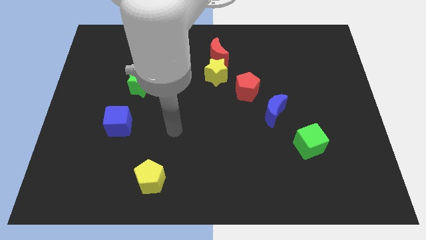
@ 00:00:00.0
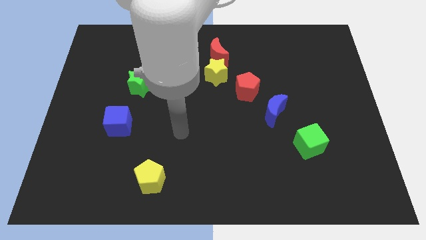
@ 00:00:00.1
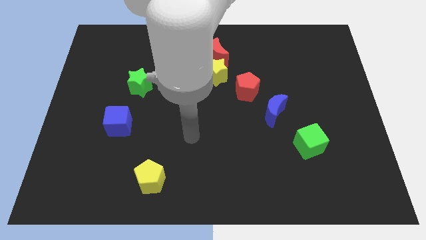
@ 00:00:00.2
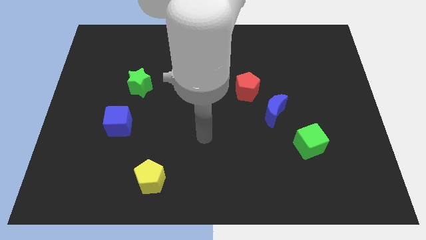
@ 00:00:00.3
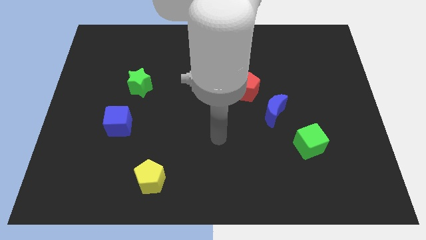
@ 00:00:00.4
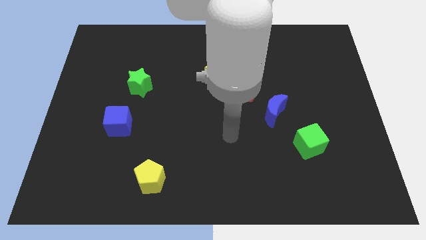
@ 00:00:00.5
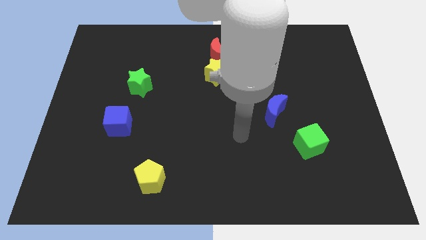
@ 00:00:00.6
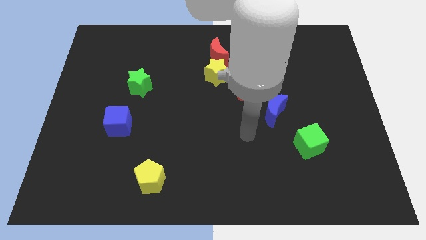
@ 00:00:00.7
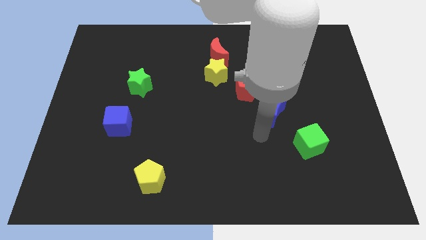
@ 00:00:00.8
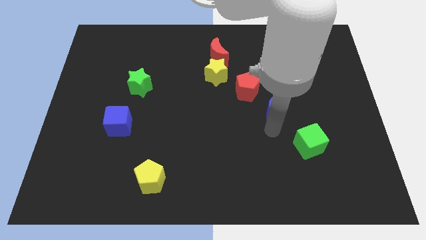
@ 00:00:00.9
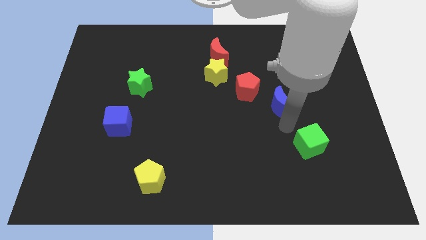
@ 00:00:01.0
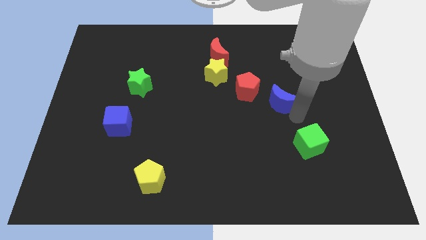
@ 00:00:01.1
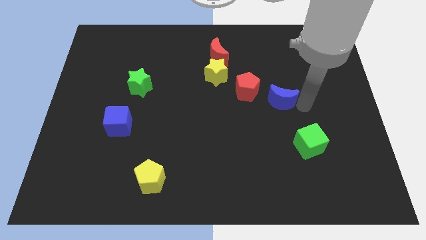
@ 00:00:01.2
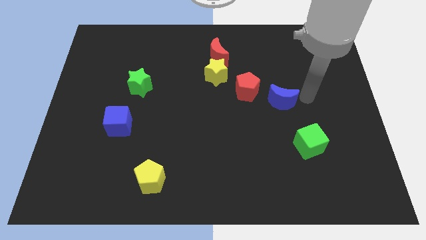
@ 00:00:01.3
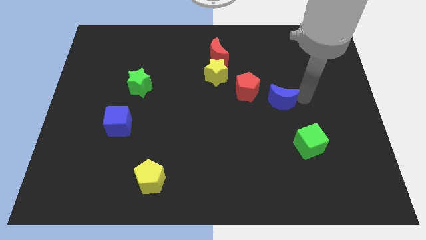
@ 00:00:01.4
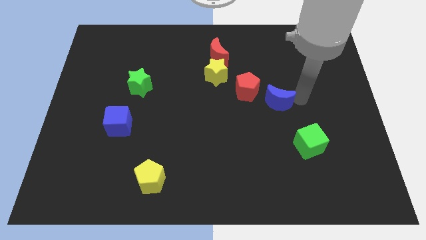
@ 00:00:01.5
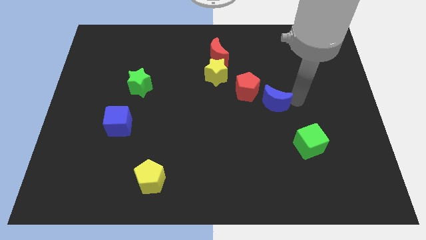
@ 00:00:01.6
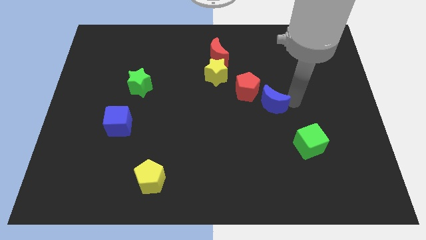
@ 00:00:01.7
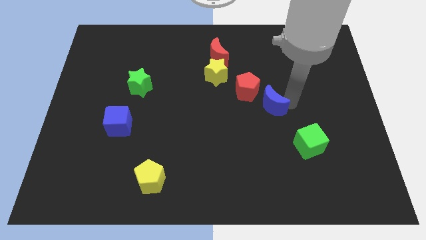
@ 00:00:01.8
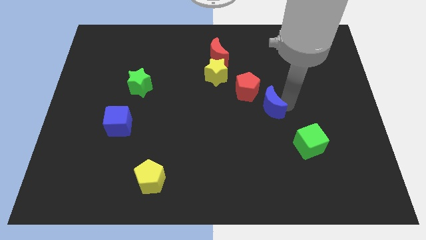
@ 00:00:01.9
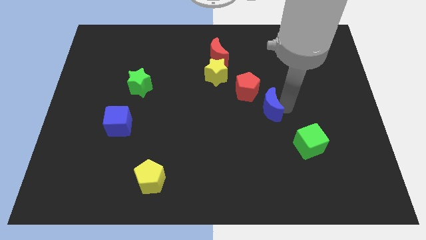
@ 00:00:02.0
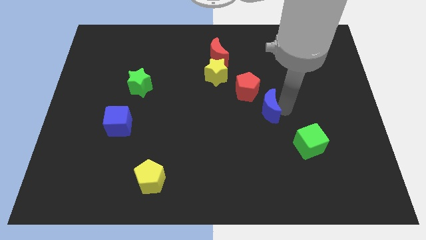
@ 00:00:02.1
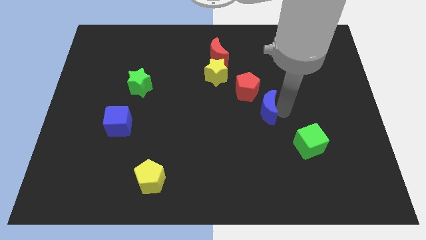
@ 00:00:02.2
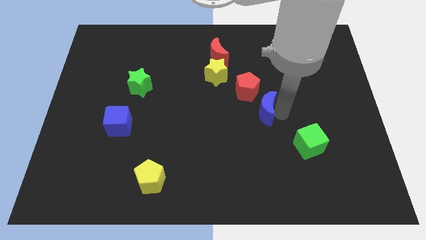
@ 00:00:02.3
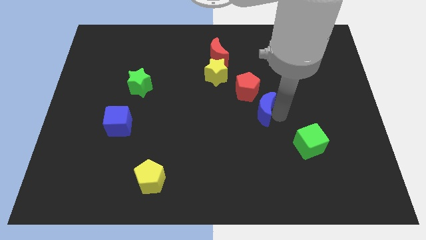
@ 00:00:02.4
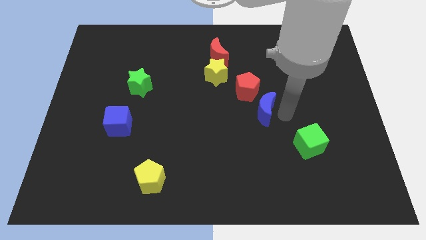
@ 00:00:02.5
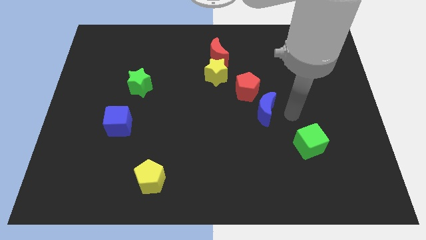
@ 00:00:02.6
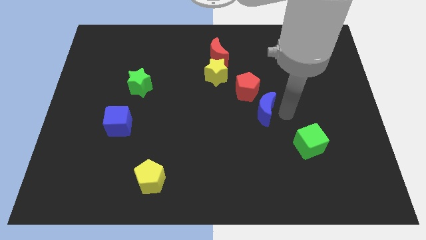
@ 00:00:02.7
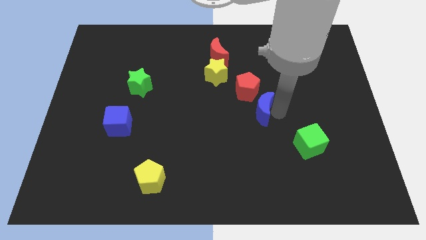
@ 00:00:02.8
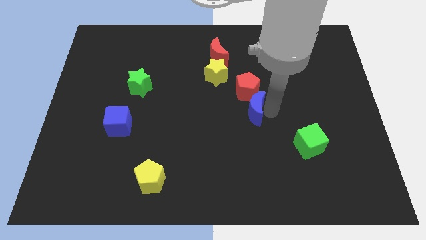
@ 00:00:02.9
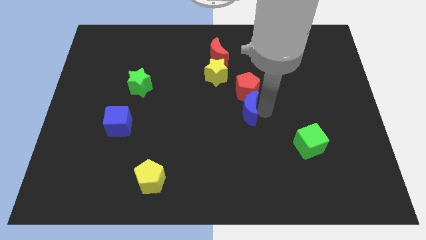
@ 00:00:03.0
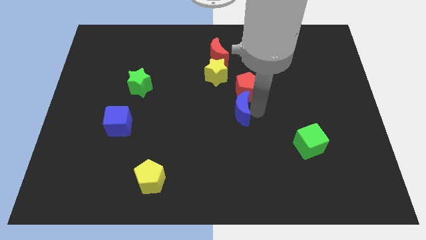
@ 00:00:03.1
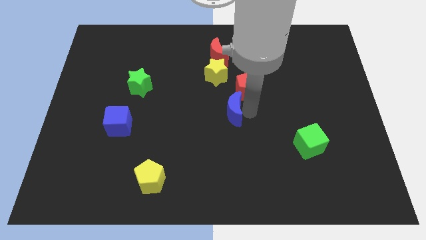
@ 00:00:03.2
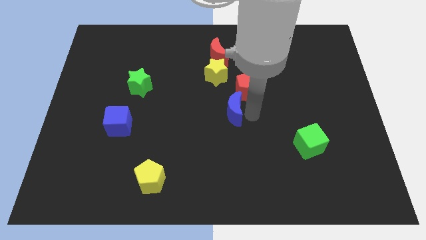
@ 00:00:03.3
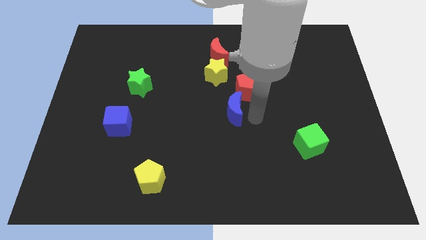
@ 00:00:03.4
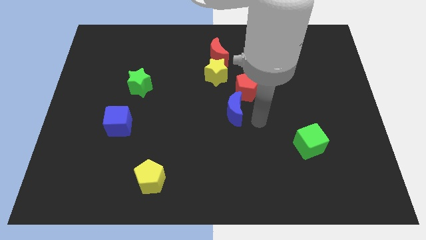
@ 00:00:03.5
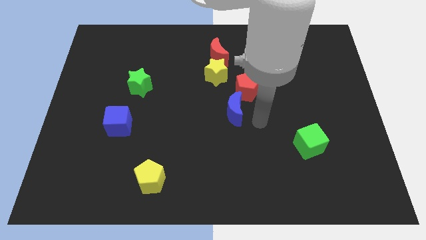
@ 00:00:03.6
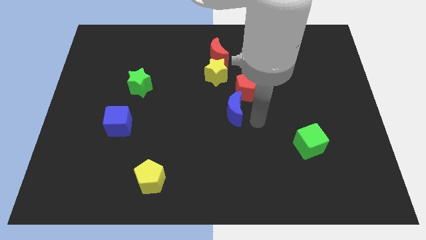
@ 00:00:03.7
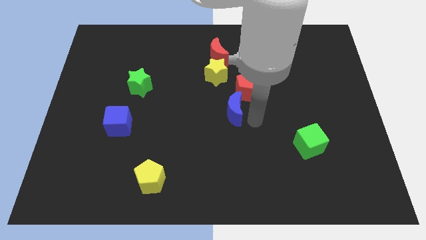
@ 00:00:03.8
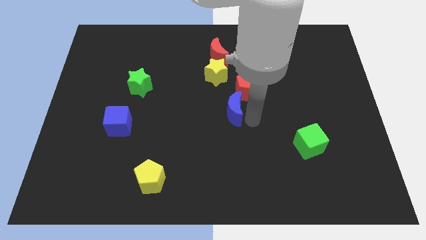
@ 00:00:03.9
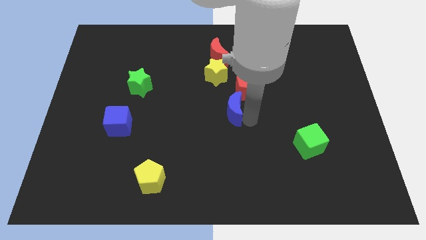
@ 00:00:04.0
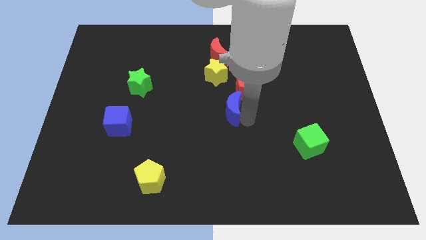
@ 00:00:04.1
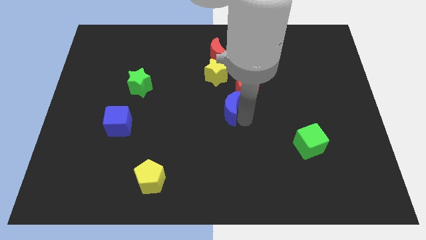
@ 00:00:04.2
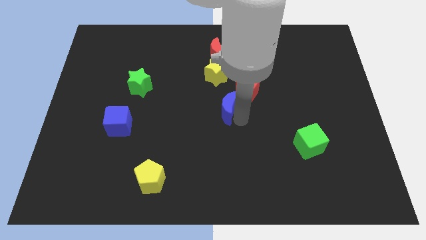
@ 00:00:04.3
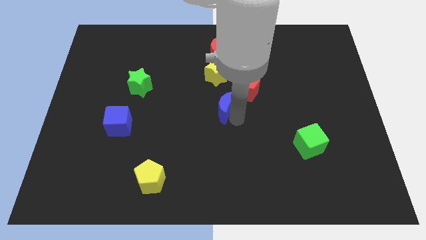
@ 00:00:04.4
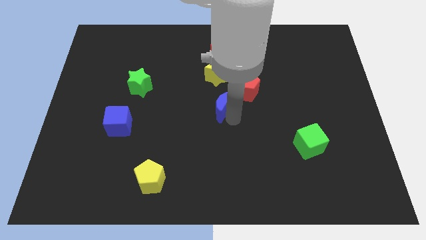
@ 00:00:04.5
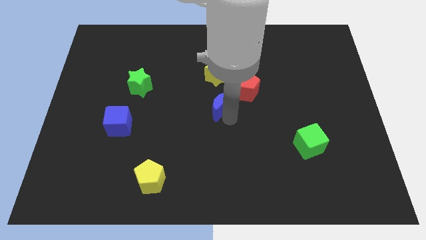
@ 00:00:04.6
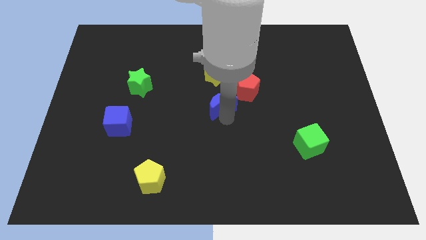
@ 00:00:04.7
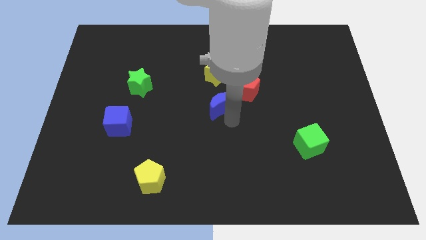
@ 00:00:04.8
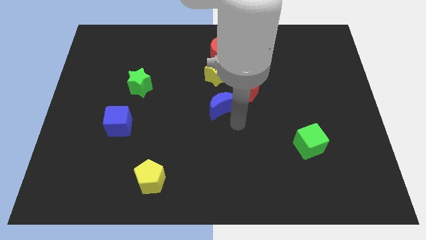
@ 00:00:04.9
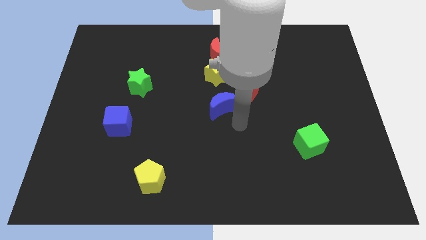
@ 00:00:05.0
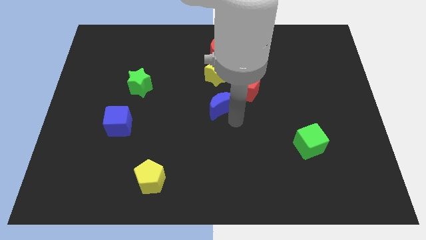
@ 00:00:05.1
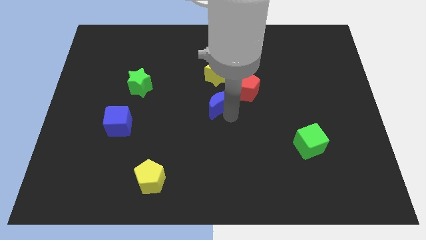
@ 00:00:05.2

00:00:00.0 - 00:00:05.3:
slide the blue moon left of the red pentagon

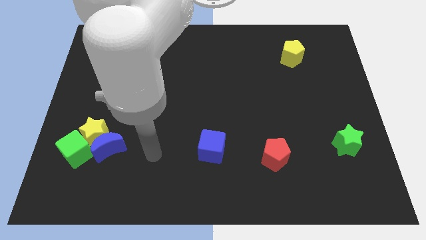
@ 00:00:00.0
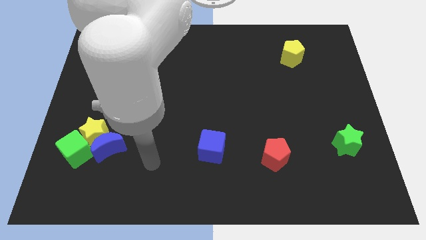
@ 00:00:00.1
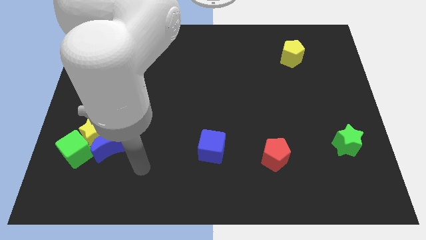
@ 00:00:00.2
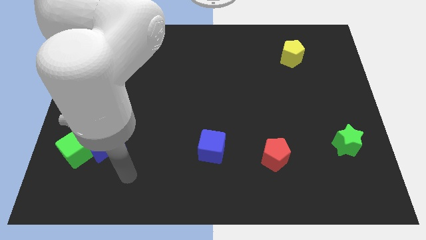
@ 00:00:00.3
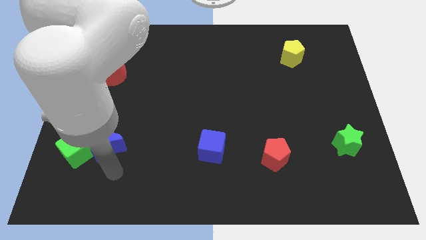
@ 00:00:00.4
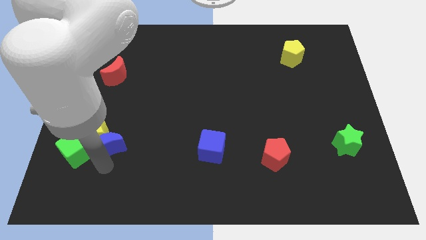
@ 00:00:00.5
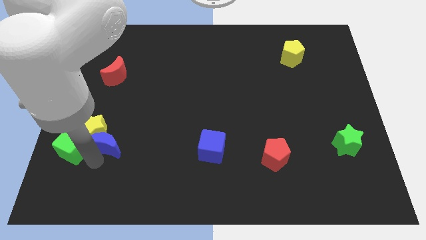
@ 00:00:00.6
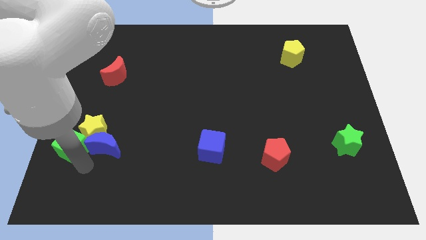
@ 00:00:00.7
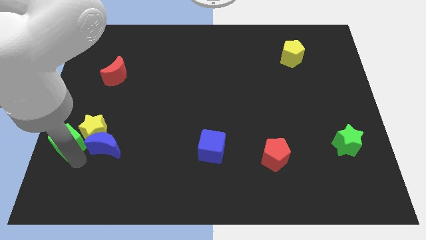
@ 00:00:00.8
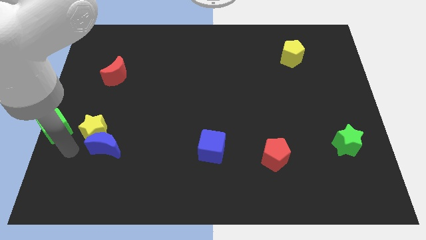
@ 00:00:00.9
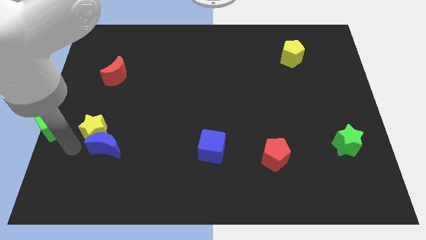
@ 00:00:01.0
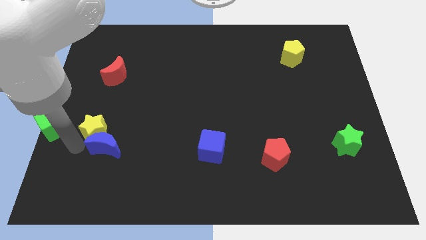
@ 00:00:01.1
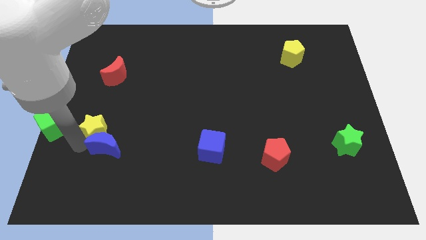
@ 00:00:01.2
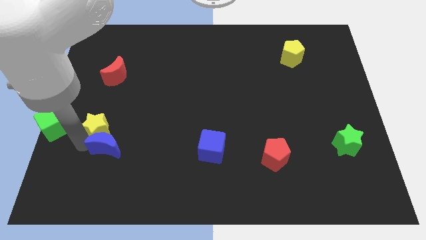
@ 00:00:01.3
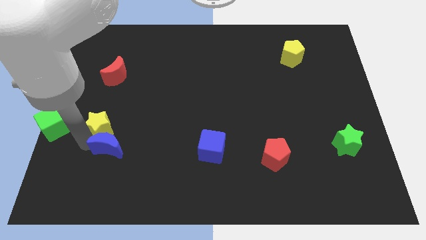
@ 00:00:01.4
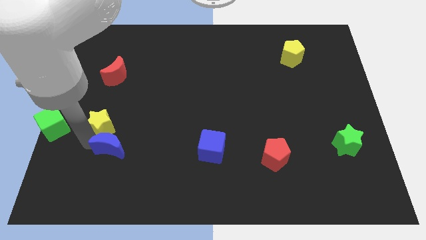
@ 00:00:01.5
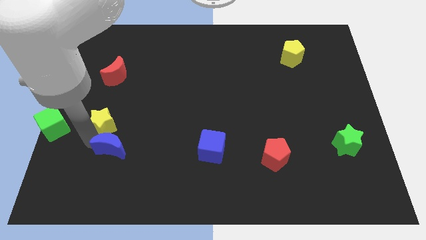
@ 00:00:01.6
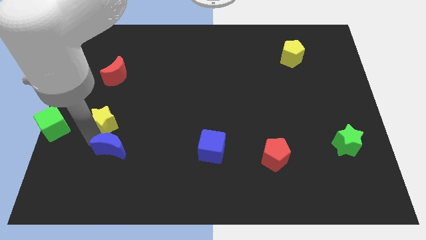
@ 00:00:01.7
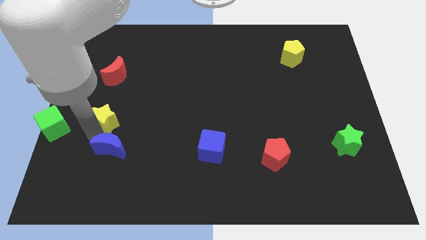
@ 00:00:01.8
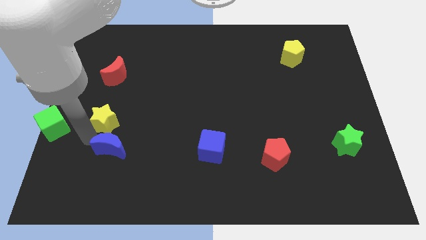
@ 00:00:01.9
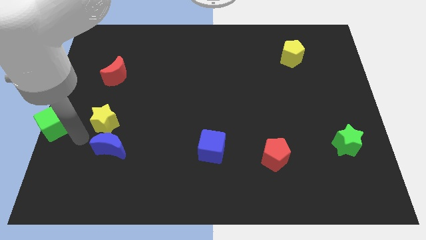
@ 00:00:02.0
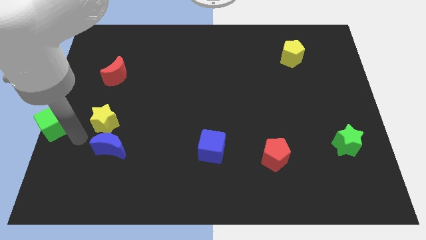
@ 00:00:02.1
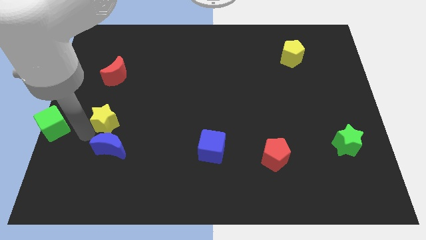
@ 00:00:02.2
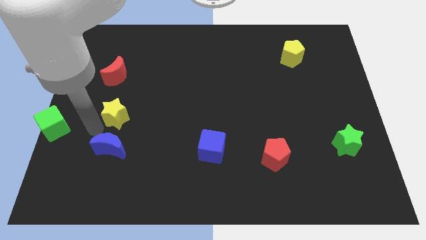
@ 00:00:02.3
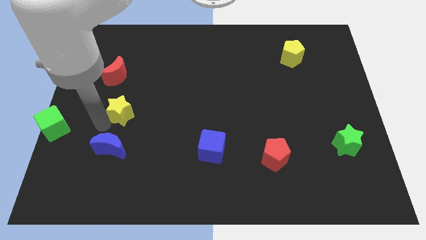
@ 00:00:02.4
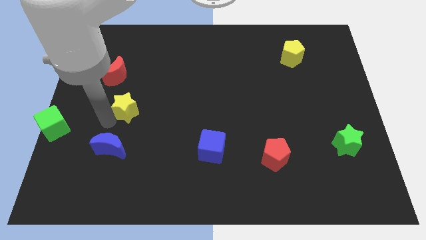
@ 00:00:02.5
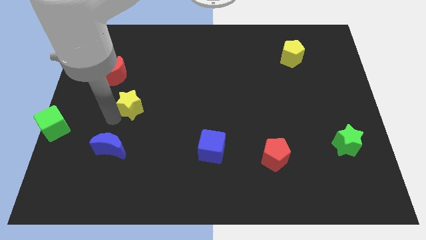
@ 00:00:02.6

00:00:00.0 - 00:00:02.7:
put the yellow star to the bottom right side of the red moon
